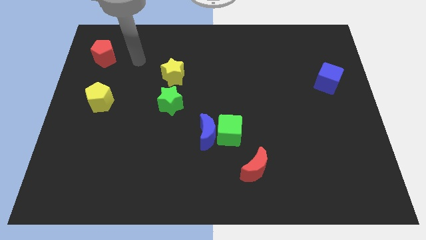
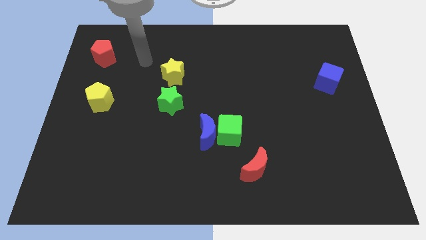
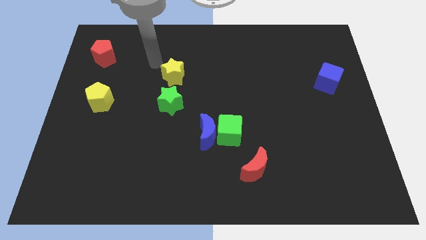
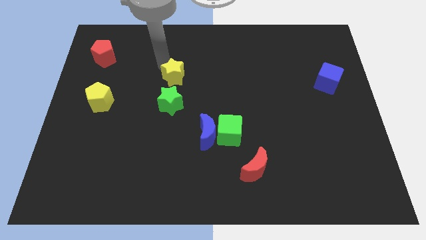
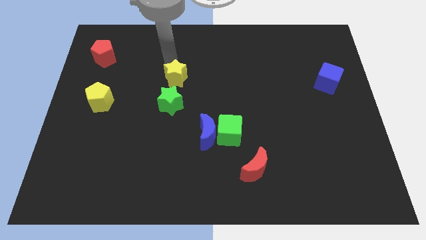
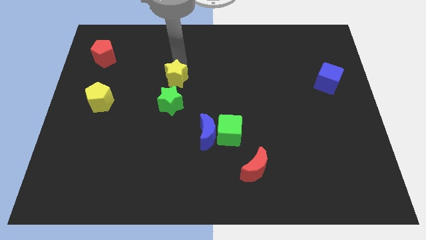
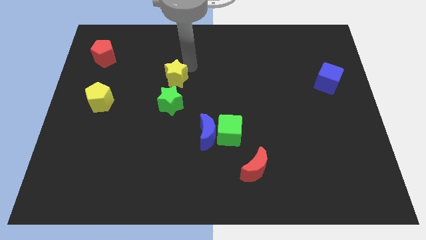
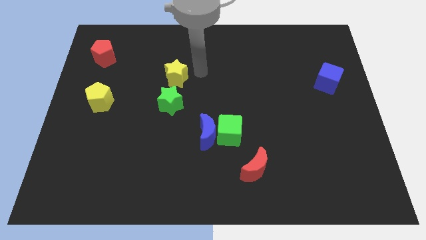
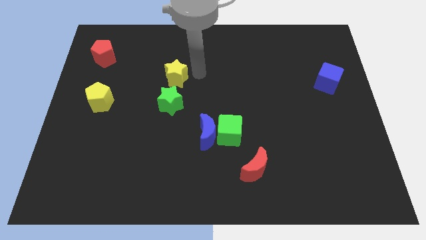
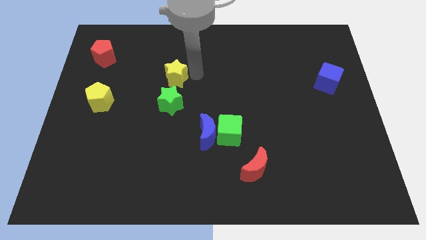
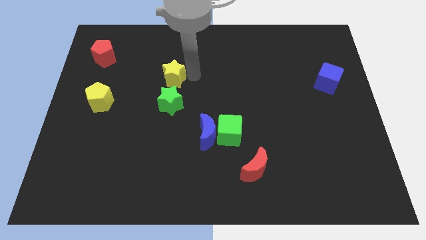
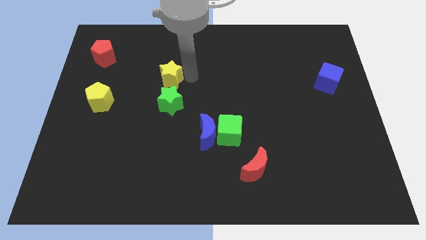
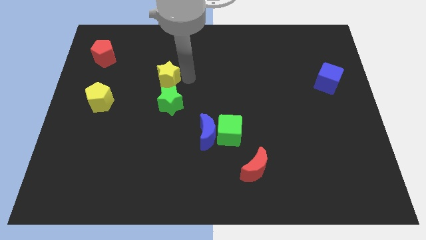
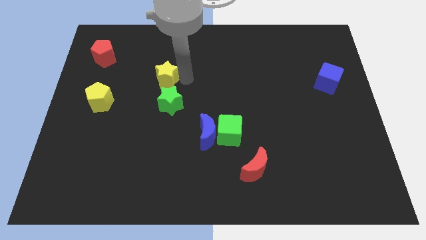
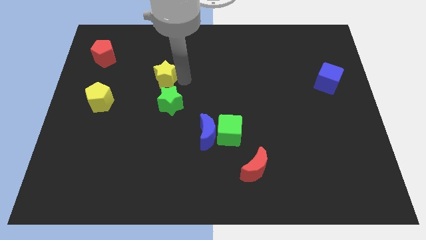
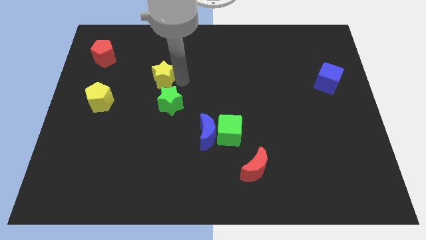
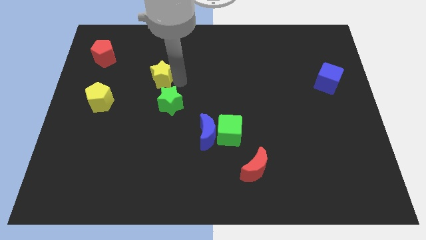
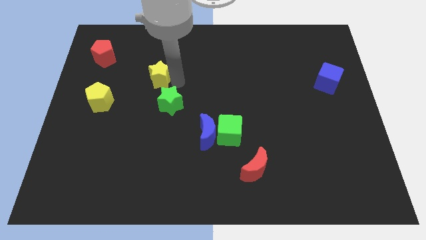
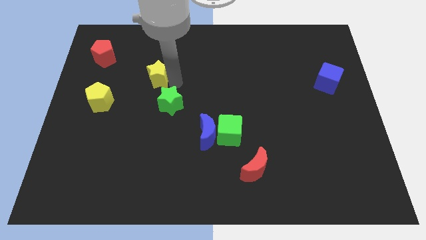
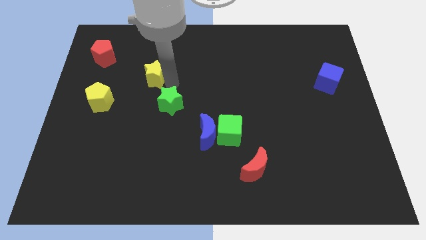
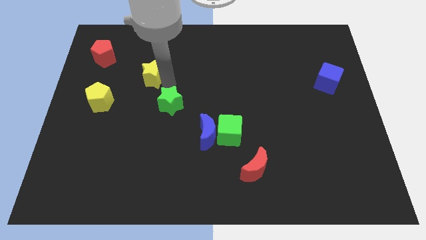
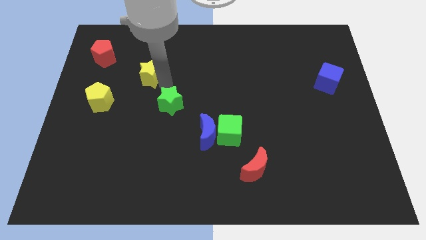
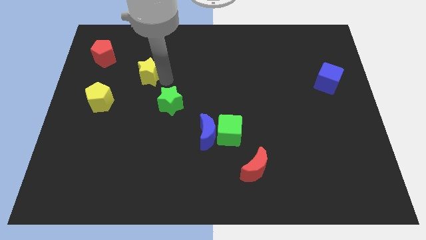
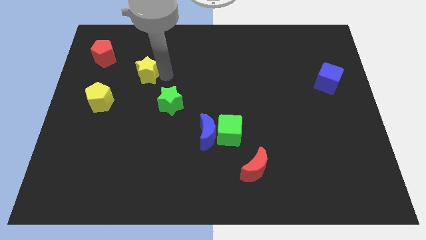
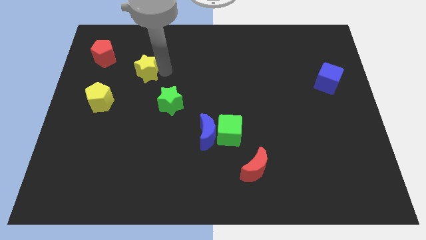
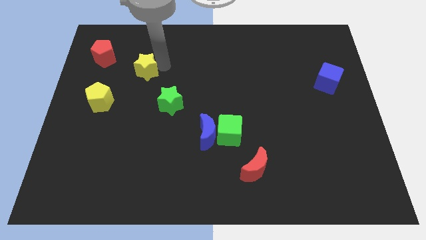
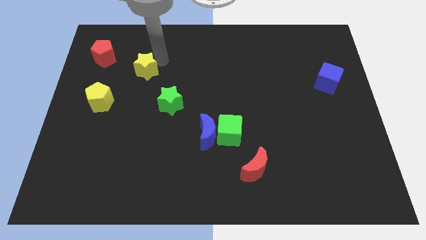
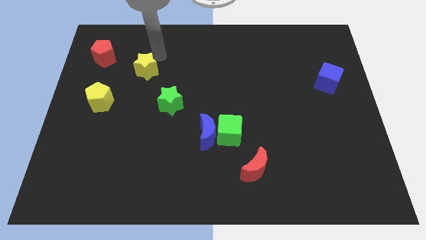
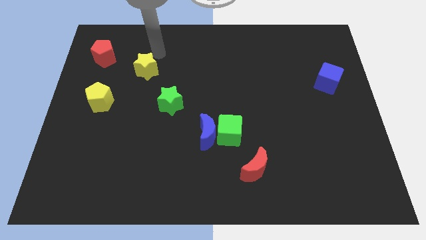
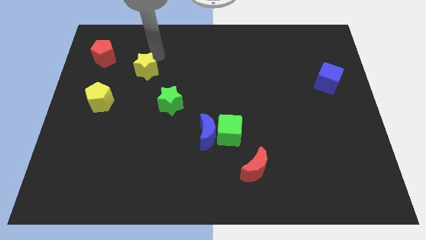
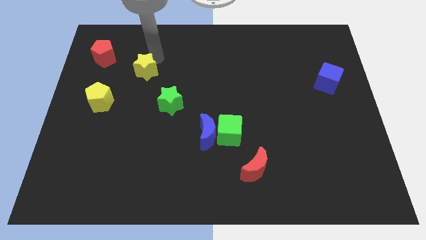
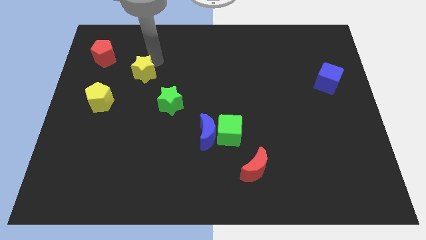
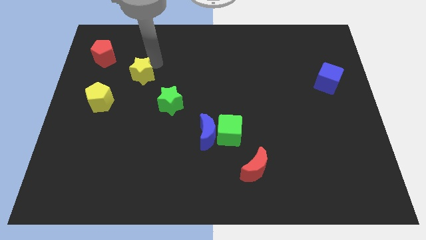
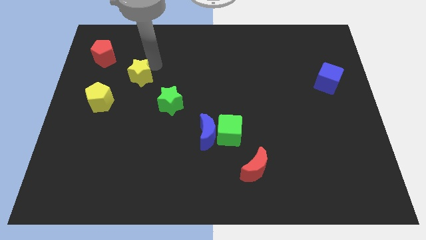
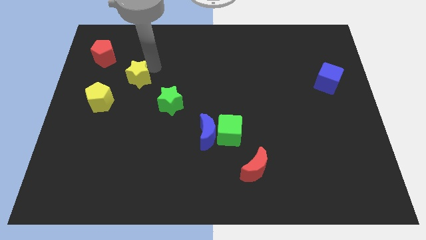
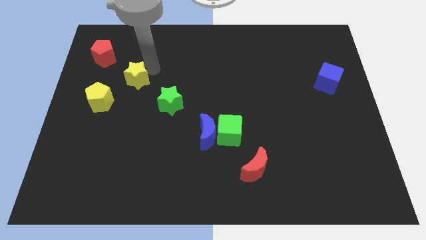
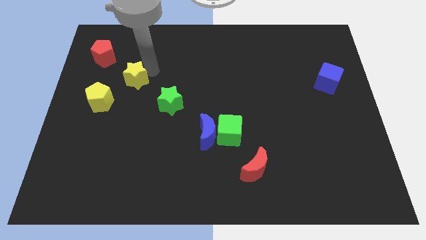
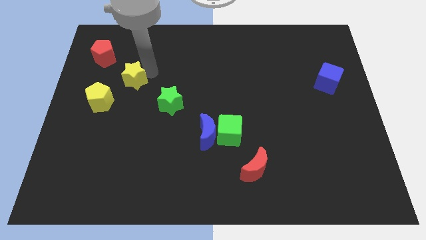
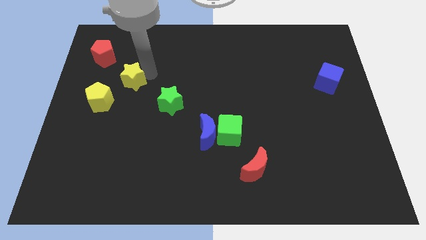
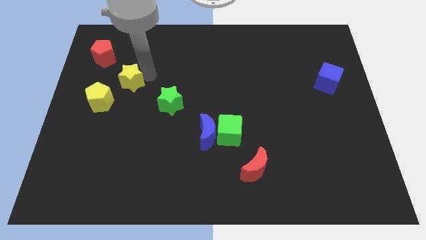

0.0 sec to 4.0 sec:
slightly move the yellow star down and then to the left

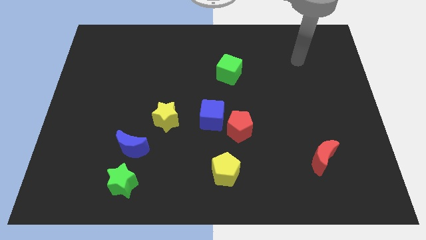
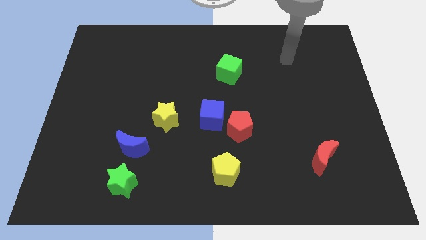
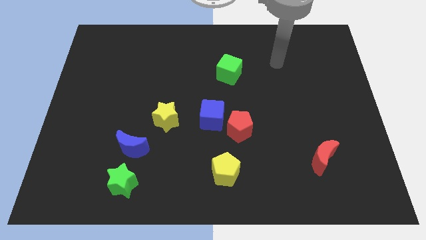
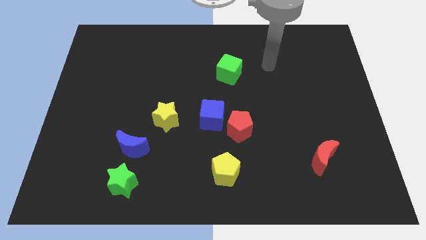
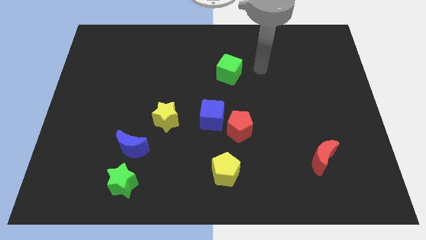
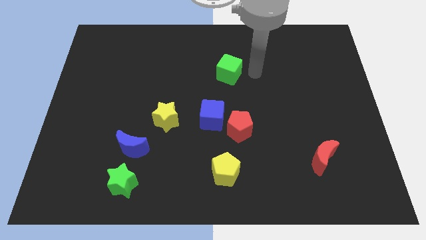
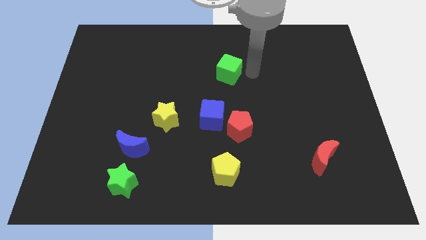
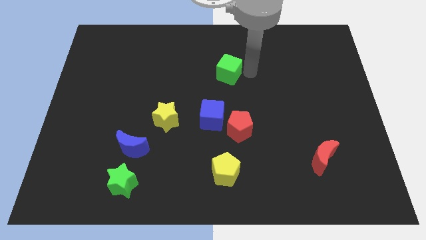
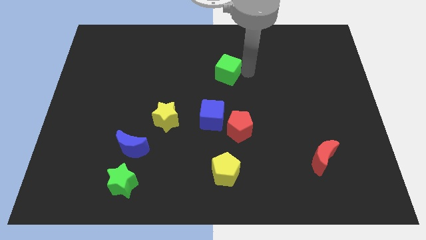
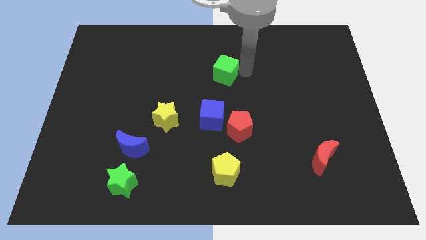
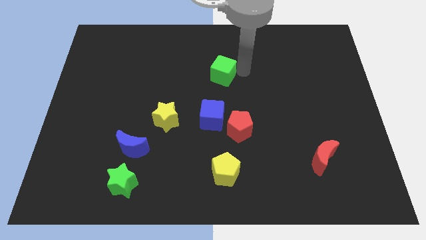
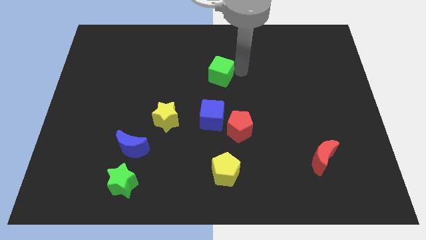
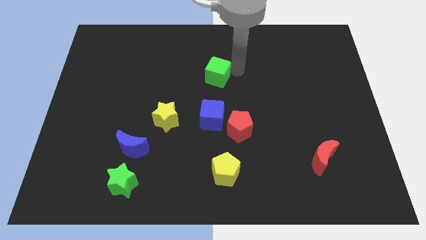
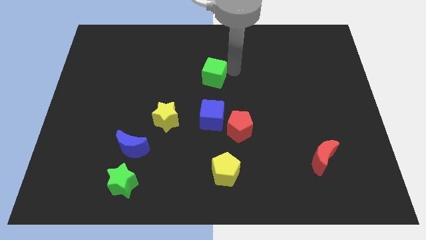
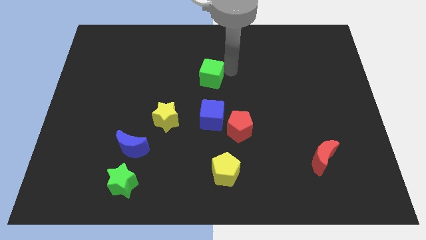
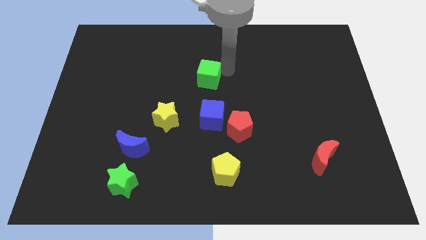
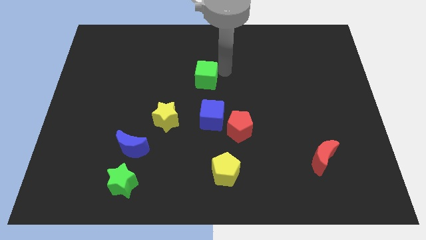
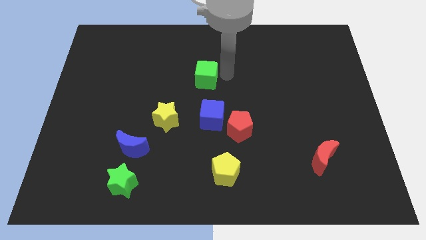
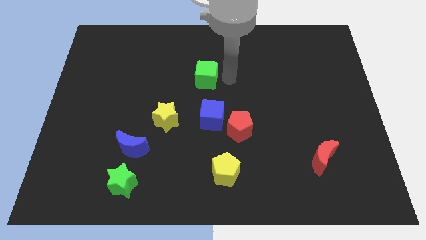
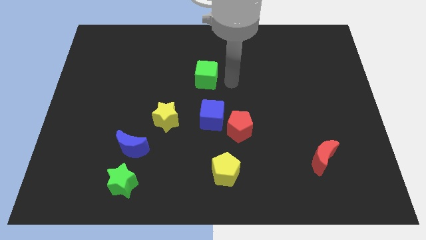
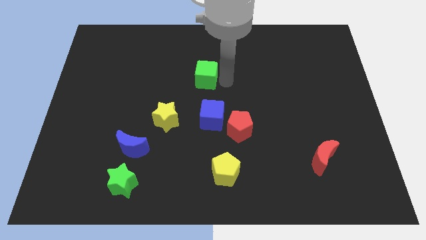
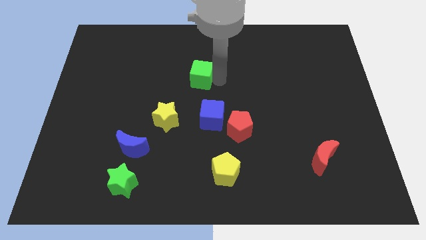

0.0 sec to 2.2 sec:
slightly slide the green cube to the left

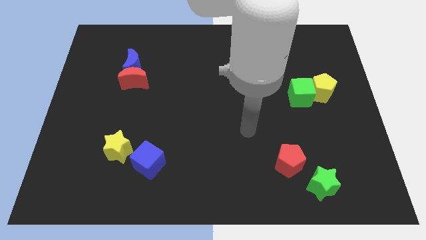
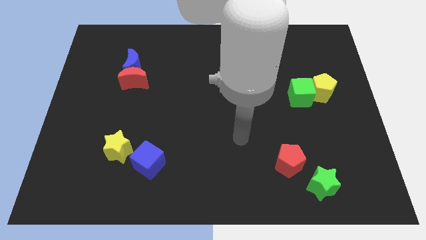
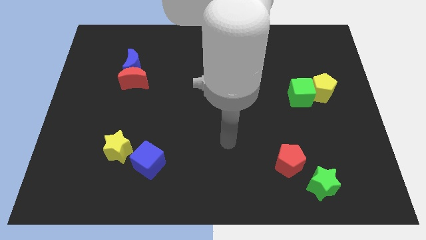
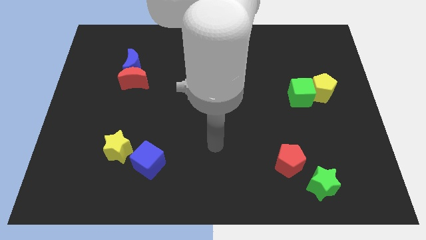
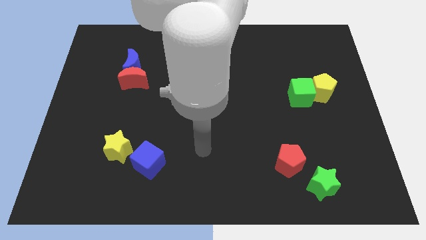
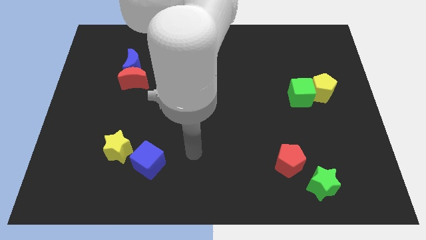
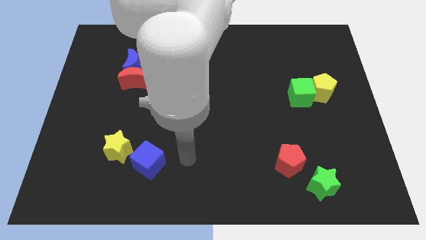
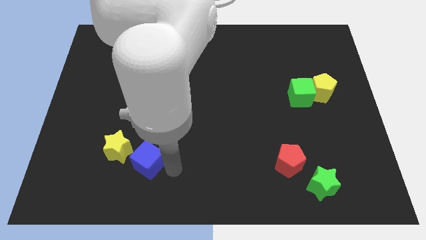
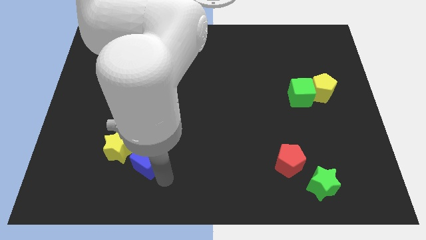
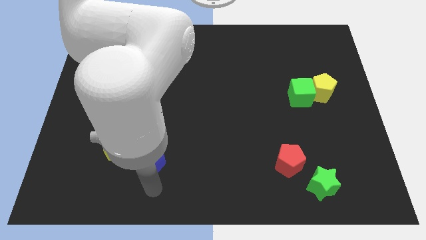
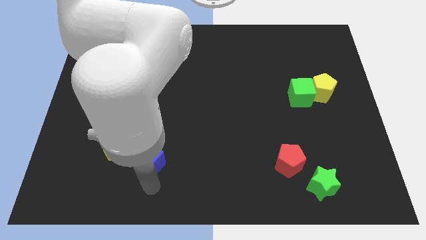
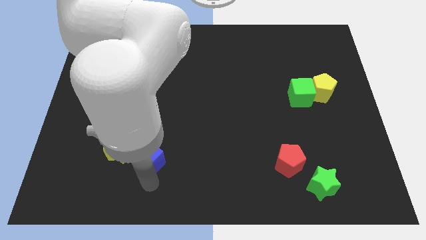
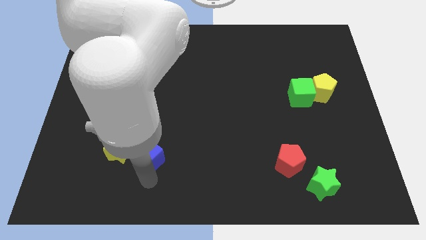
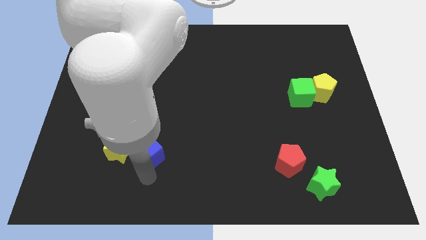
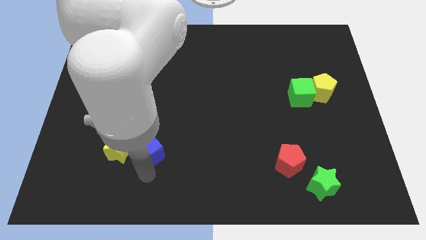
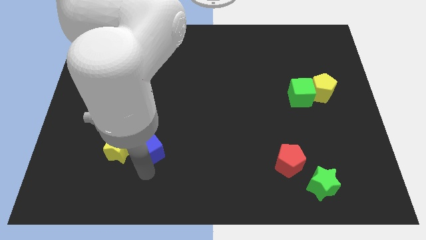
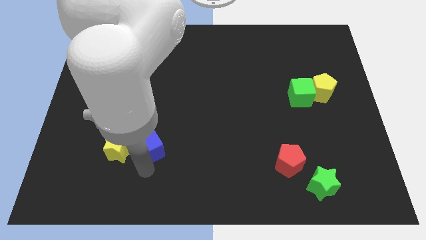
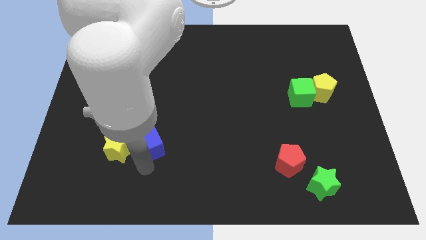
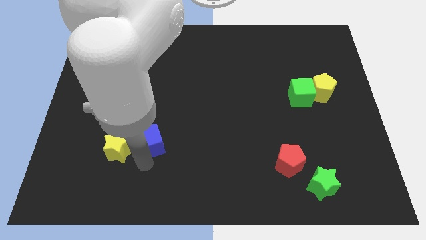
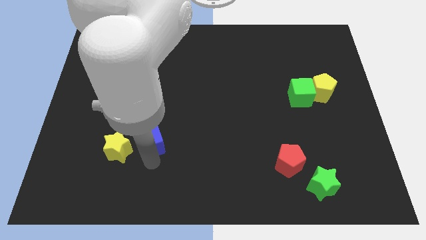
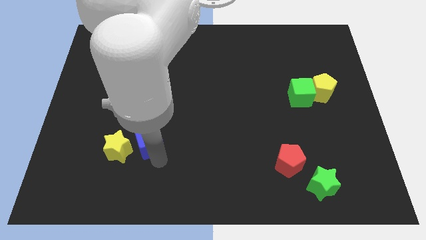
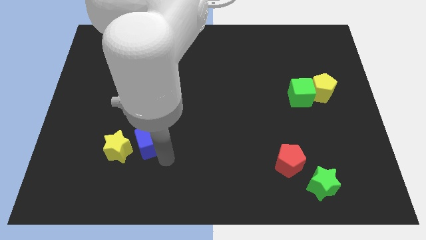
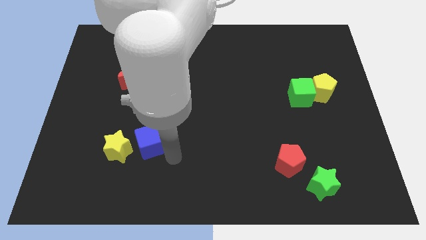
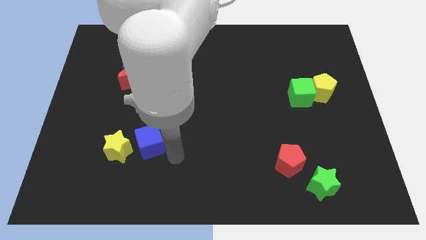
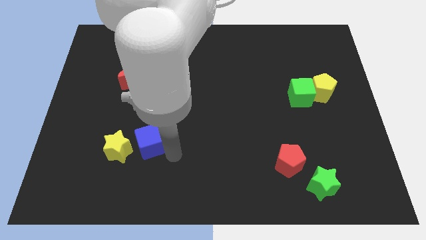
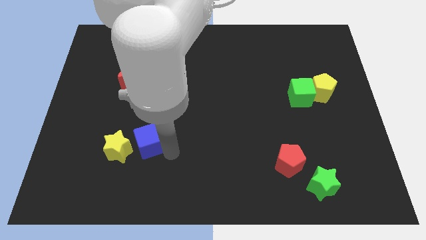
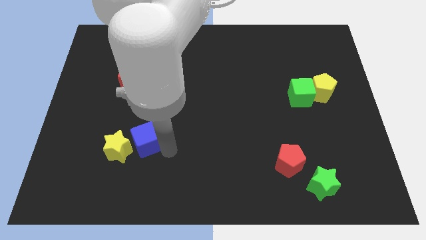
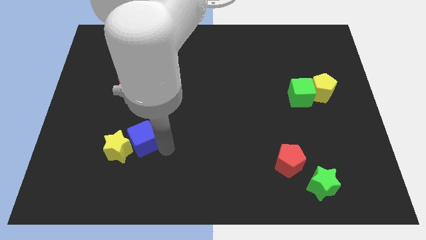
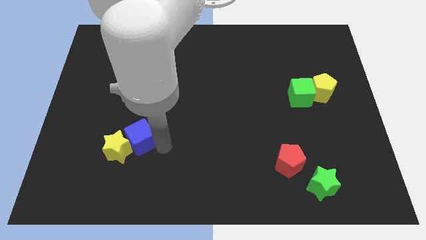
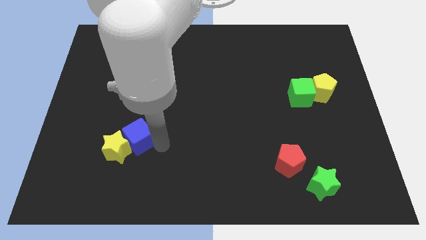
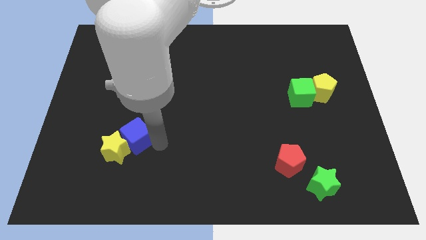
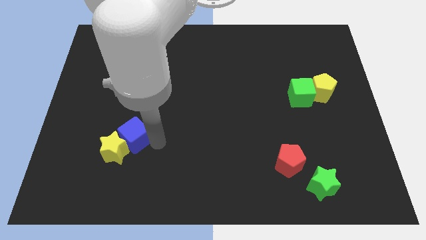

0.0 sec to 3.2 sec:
push the blue cube somewhat diagonally upwards and to the left
